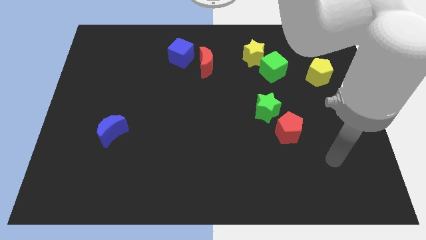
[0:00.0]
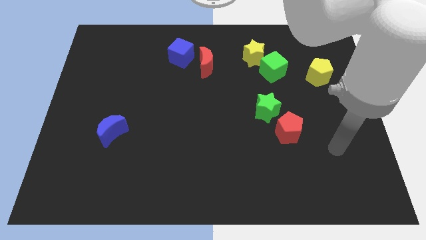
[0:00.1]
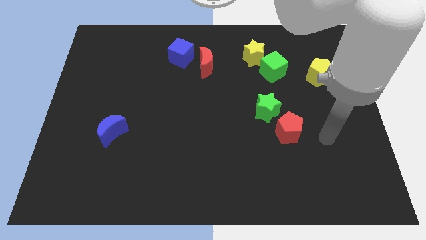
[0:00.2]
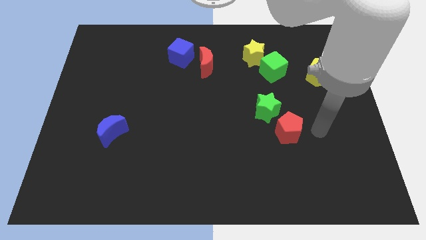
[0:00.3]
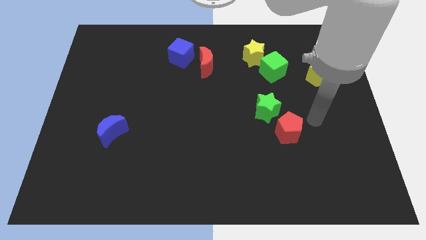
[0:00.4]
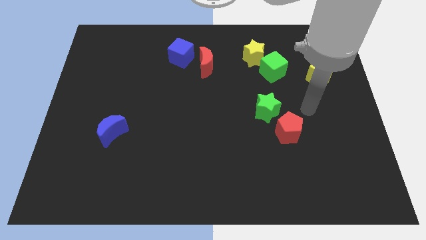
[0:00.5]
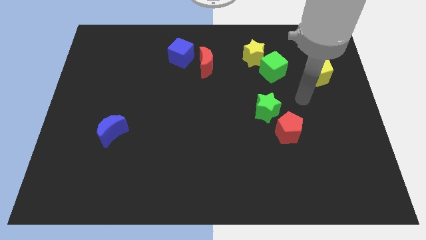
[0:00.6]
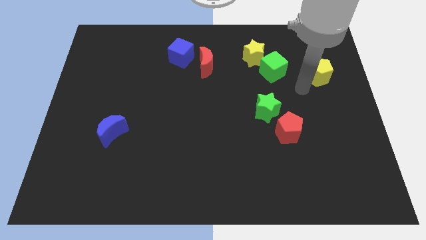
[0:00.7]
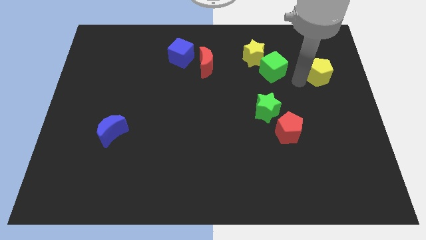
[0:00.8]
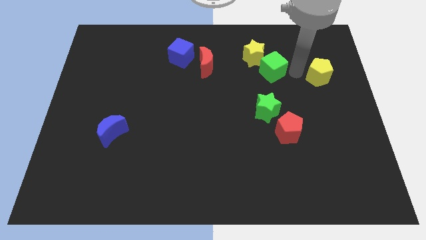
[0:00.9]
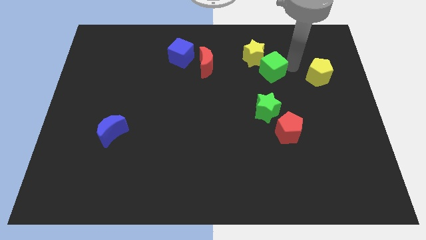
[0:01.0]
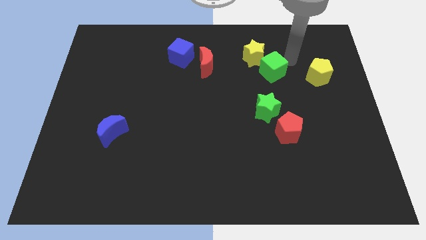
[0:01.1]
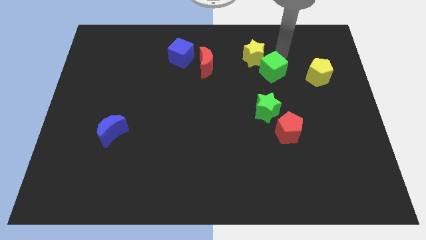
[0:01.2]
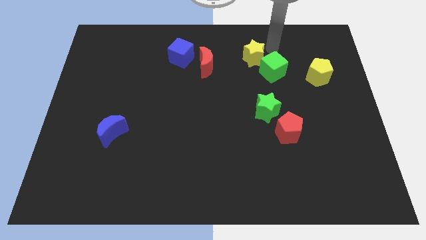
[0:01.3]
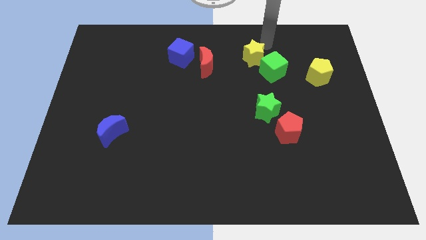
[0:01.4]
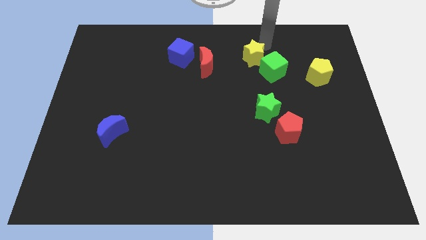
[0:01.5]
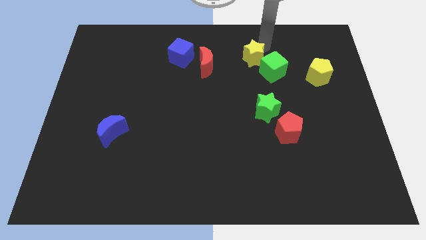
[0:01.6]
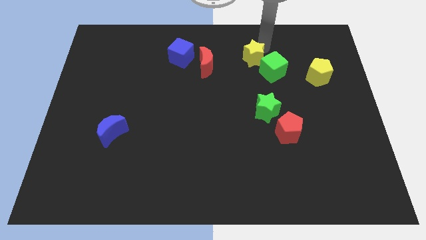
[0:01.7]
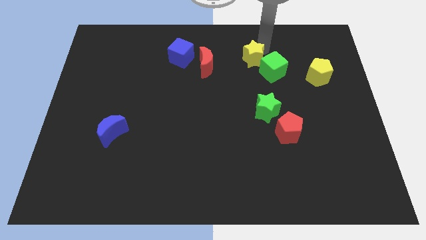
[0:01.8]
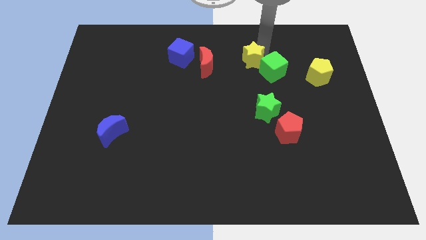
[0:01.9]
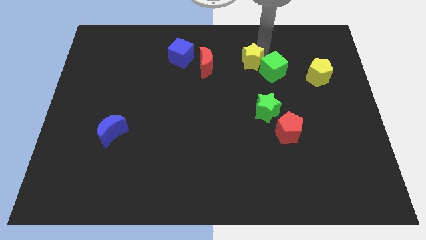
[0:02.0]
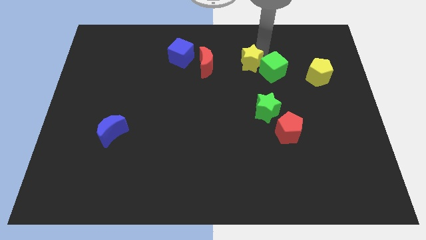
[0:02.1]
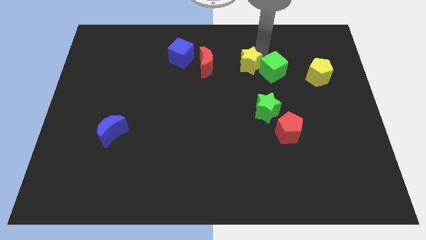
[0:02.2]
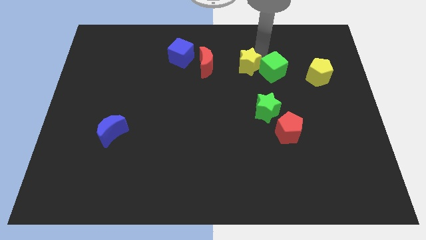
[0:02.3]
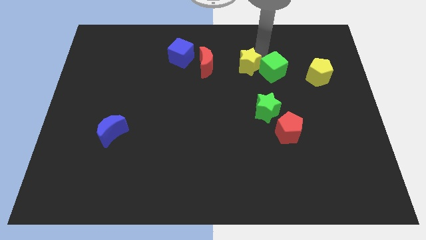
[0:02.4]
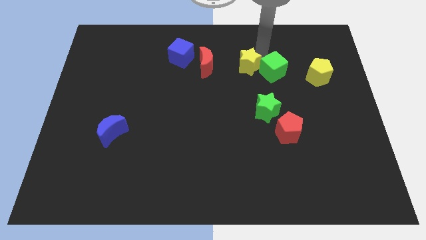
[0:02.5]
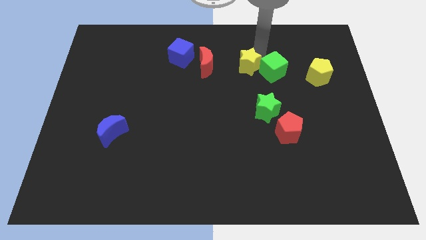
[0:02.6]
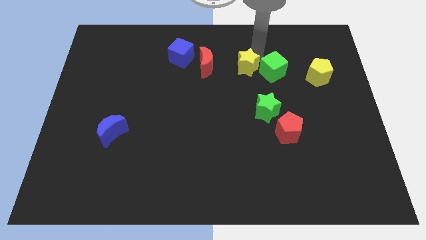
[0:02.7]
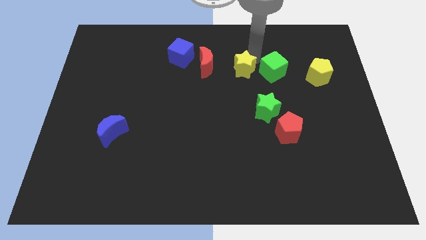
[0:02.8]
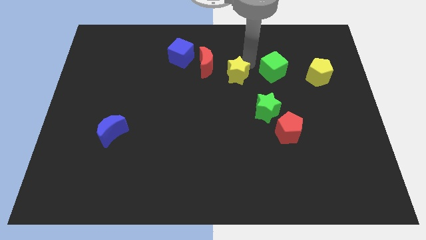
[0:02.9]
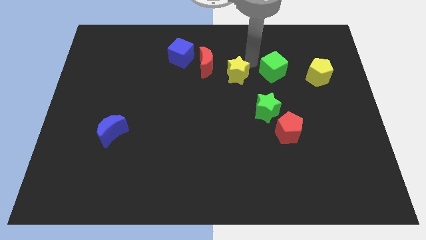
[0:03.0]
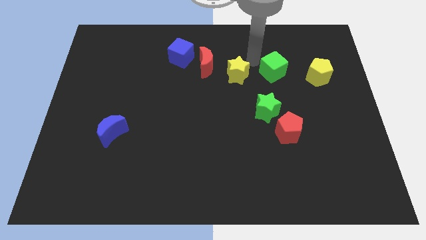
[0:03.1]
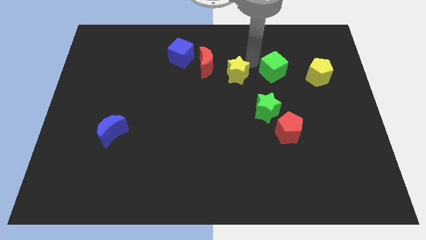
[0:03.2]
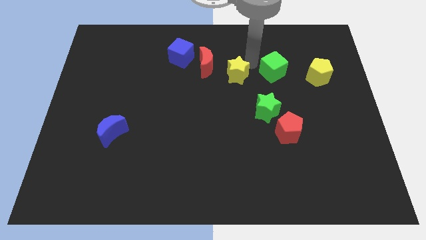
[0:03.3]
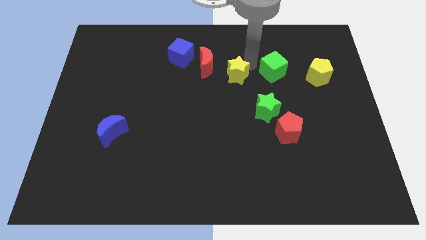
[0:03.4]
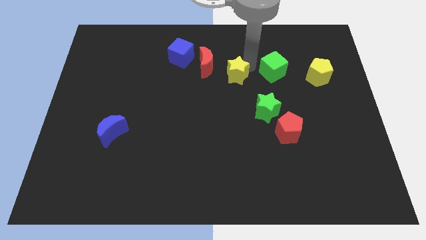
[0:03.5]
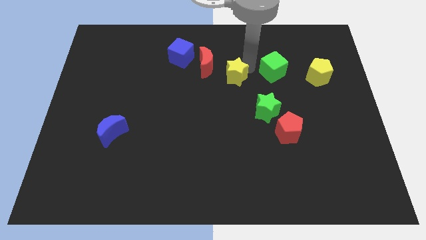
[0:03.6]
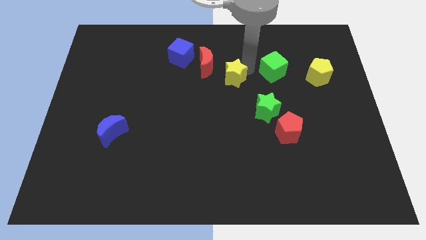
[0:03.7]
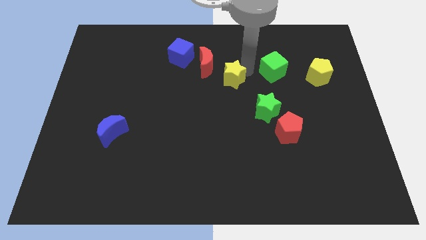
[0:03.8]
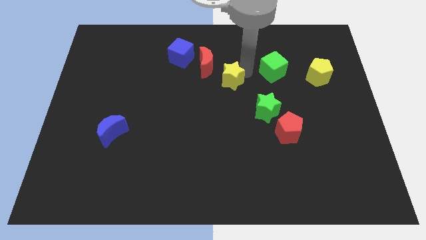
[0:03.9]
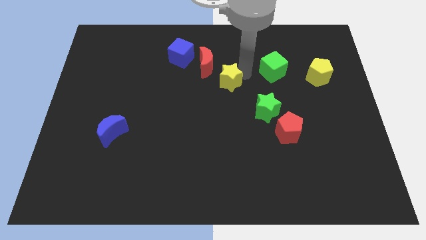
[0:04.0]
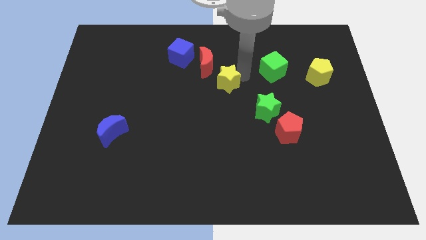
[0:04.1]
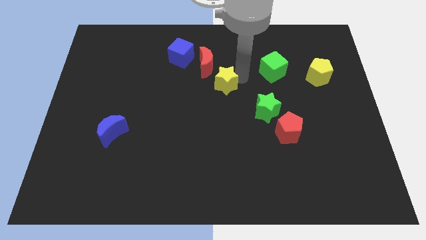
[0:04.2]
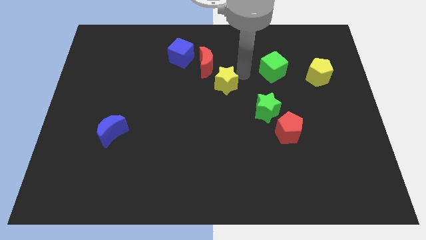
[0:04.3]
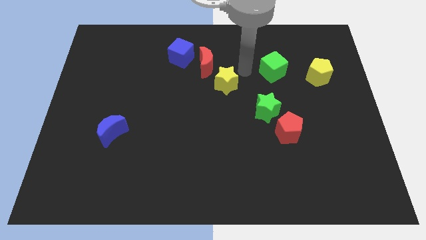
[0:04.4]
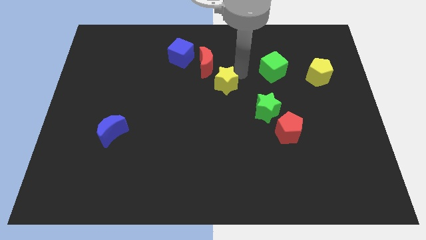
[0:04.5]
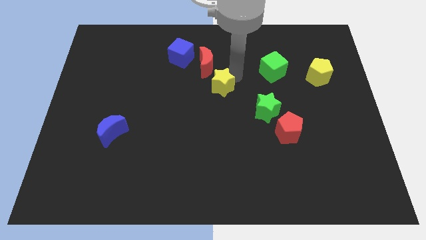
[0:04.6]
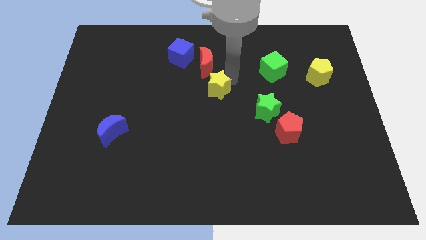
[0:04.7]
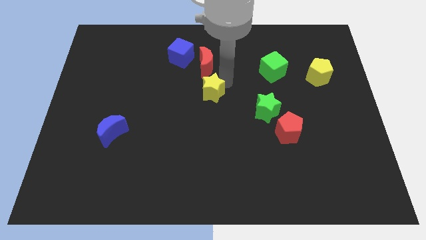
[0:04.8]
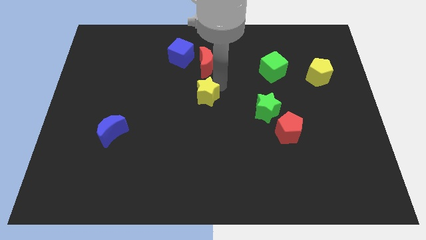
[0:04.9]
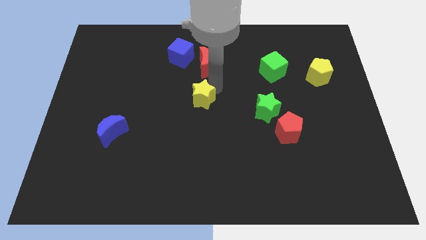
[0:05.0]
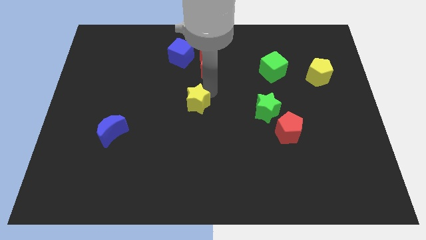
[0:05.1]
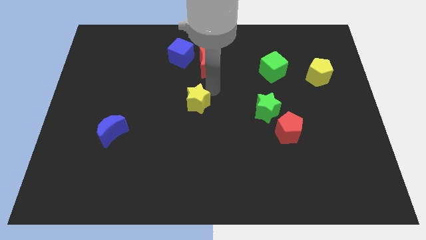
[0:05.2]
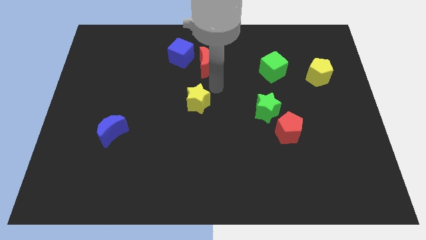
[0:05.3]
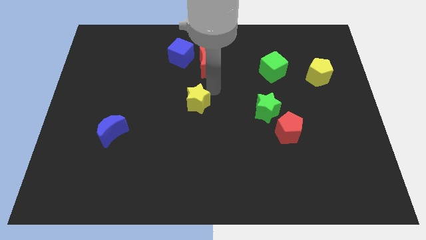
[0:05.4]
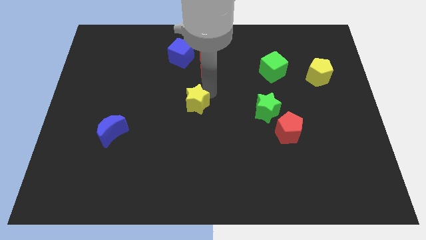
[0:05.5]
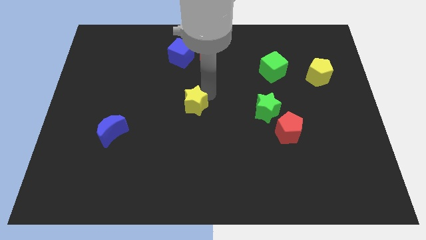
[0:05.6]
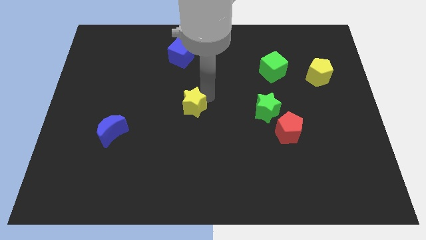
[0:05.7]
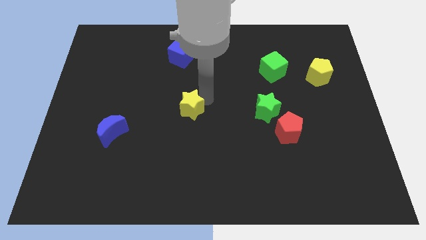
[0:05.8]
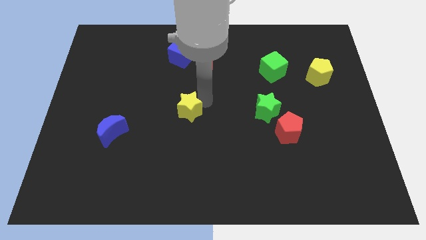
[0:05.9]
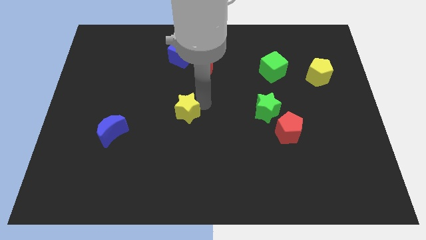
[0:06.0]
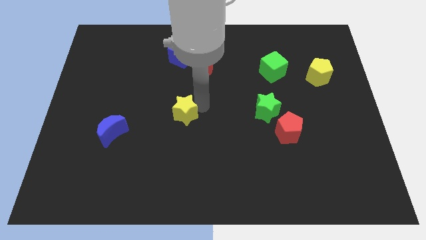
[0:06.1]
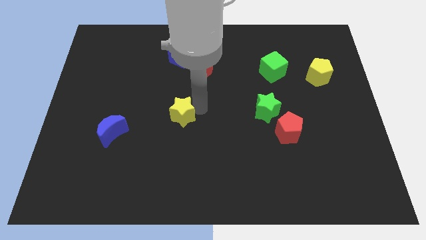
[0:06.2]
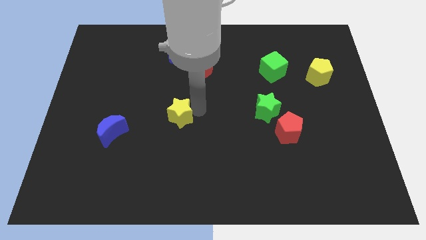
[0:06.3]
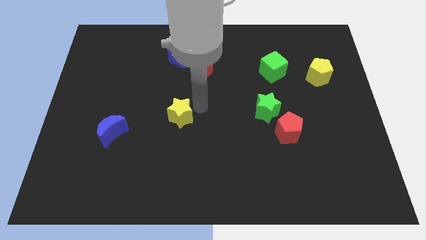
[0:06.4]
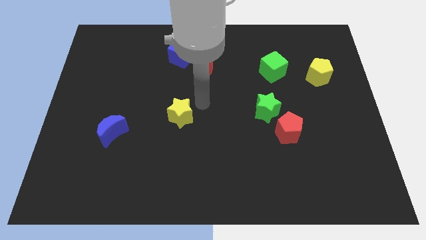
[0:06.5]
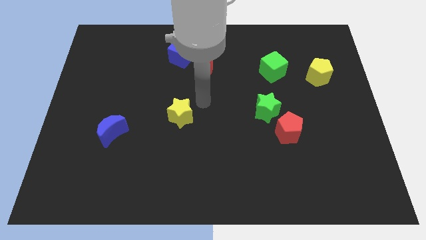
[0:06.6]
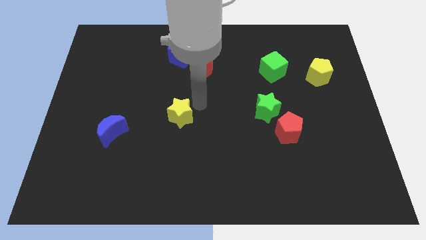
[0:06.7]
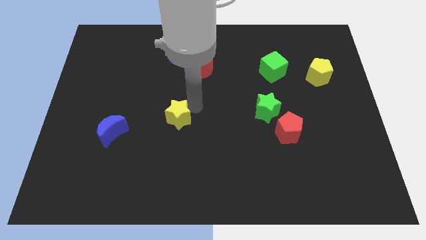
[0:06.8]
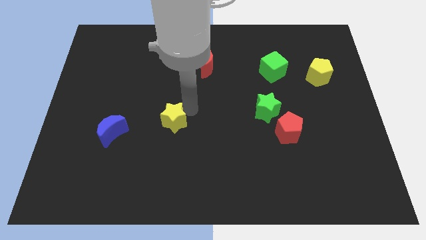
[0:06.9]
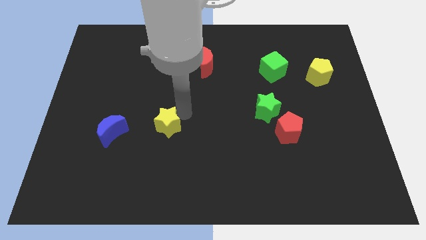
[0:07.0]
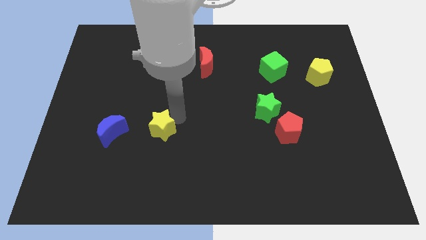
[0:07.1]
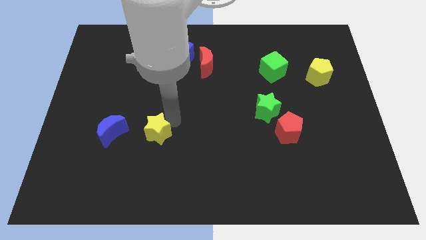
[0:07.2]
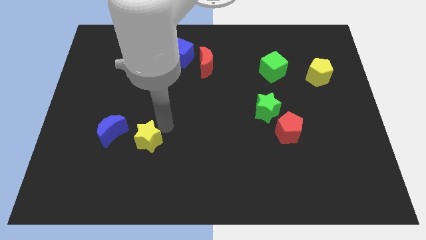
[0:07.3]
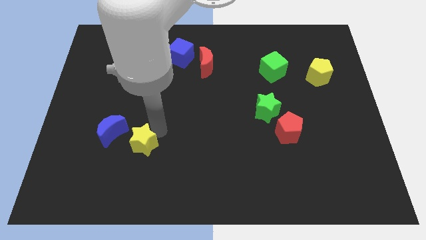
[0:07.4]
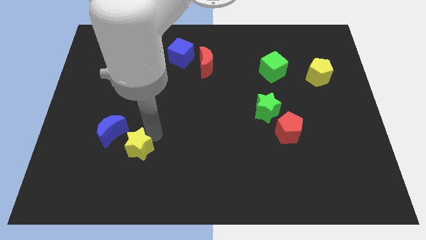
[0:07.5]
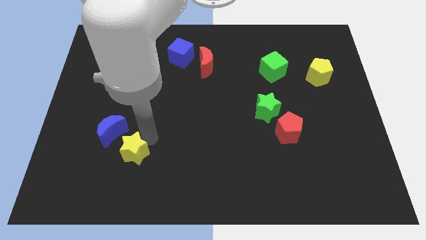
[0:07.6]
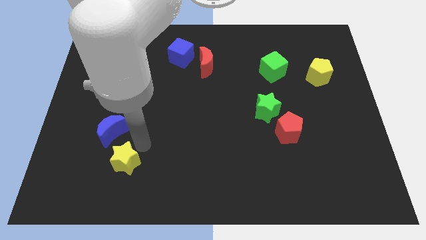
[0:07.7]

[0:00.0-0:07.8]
put the yellow star to the bottom of the blue moon

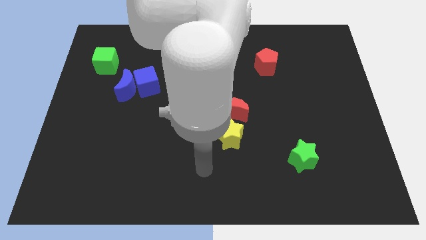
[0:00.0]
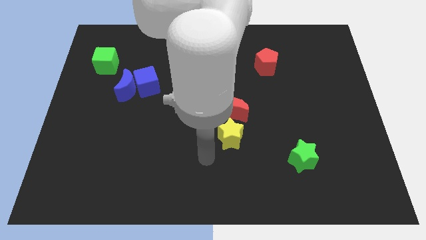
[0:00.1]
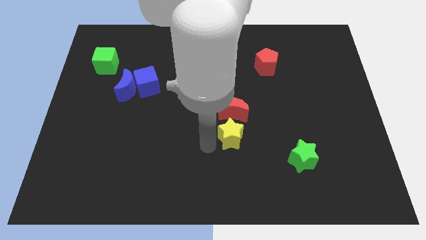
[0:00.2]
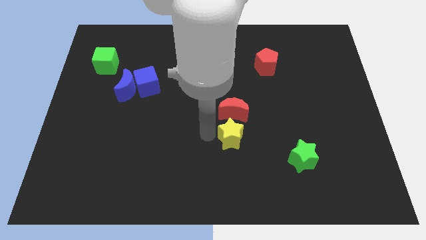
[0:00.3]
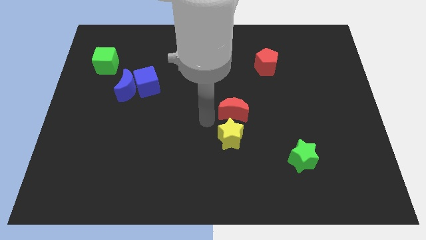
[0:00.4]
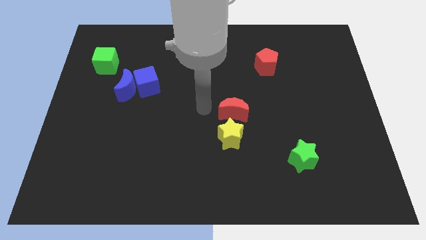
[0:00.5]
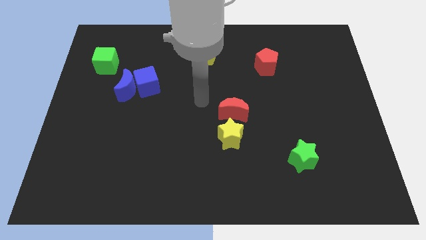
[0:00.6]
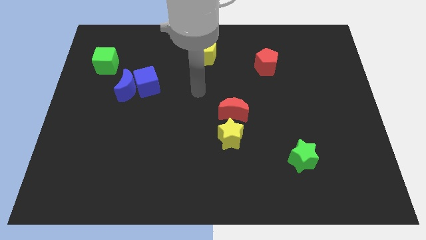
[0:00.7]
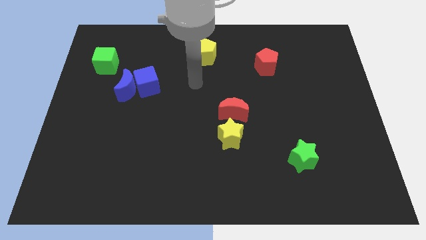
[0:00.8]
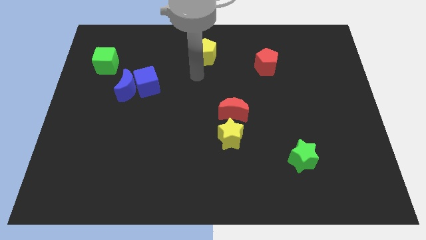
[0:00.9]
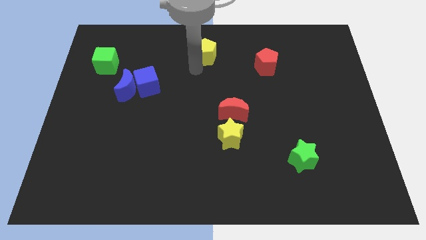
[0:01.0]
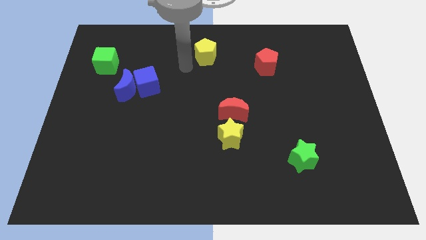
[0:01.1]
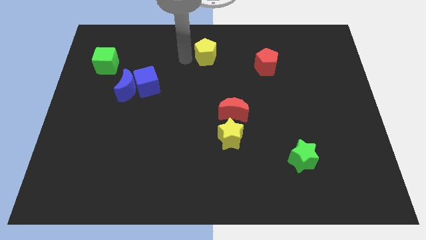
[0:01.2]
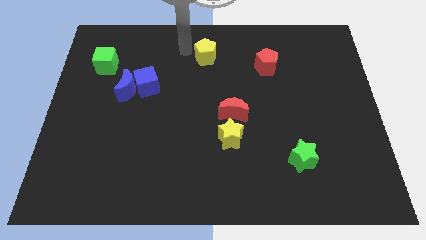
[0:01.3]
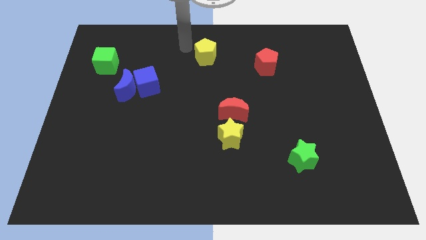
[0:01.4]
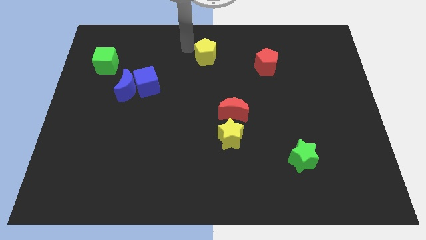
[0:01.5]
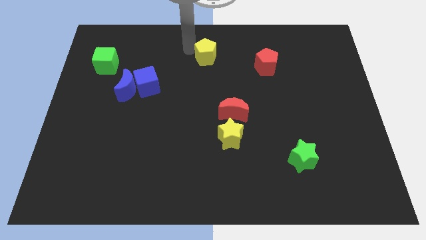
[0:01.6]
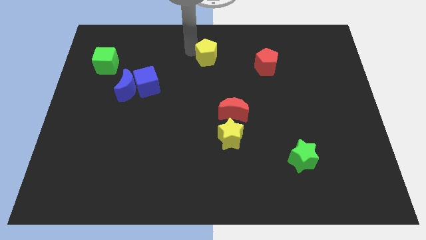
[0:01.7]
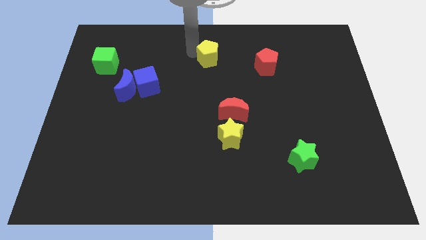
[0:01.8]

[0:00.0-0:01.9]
move the yellow pentagon just left of the red pentagon
